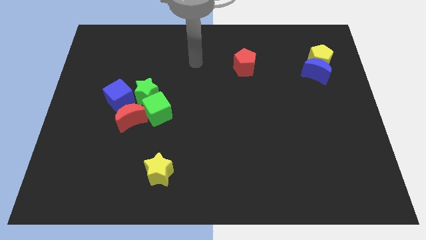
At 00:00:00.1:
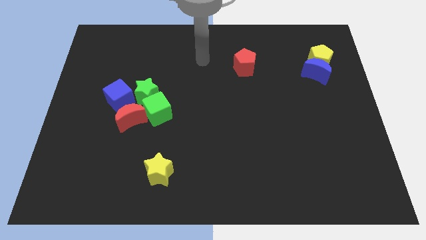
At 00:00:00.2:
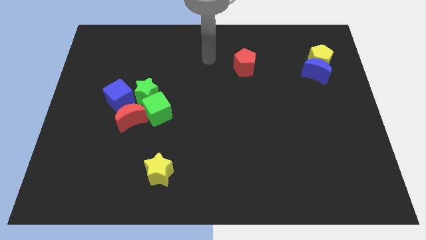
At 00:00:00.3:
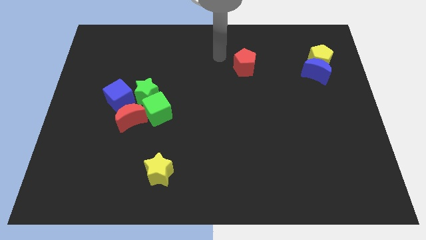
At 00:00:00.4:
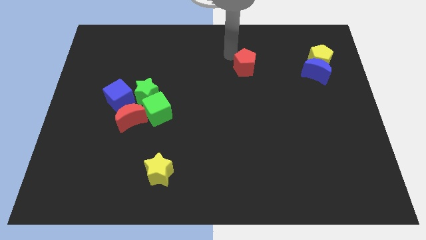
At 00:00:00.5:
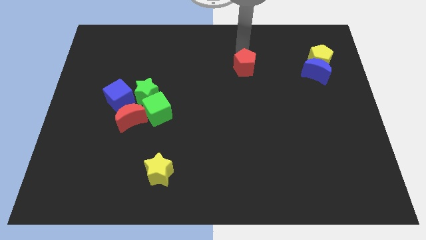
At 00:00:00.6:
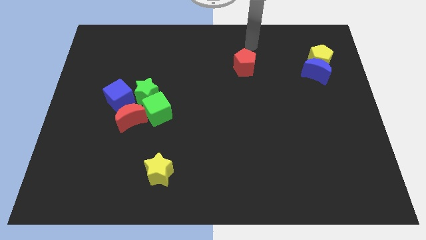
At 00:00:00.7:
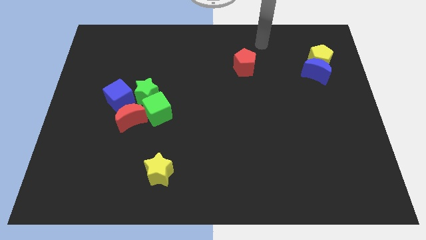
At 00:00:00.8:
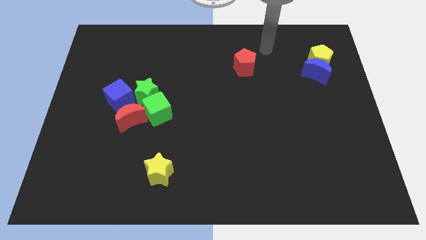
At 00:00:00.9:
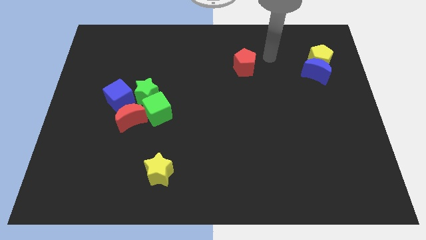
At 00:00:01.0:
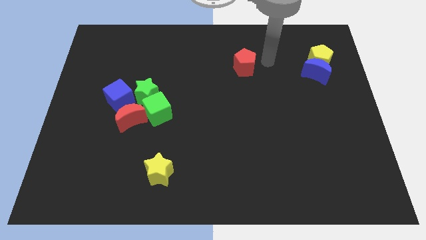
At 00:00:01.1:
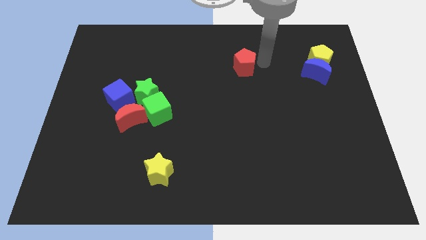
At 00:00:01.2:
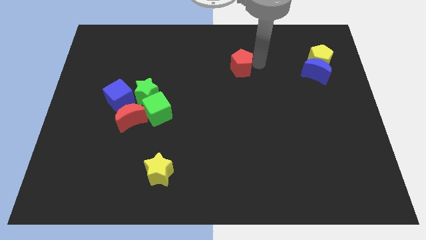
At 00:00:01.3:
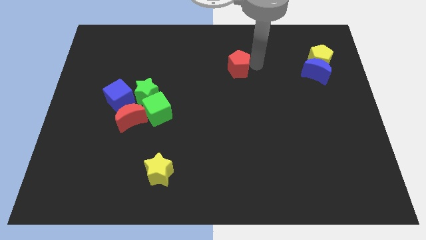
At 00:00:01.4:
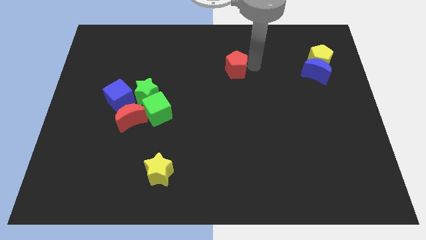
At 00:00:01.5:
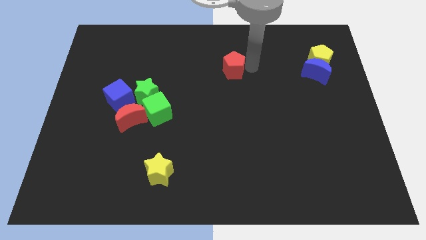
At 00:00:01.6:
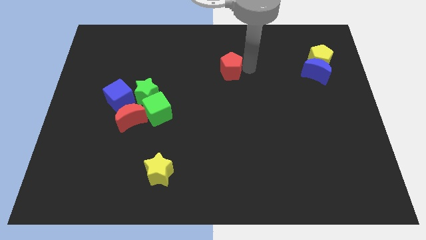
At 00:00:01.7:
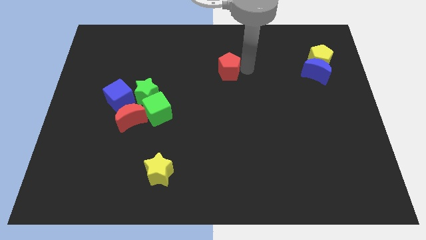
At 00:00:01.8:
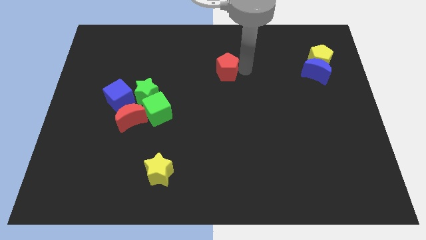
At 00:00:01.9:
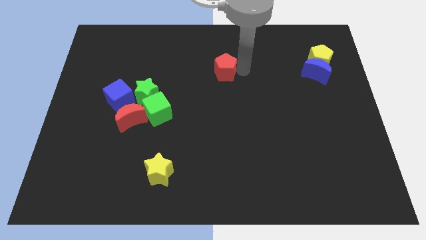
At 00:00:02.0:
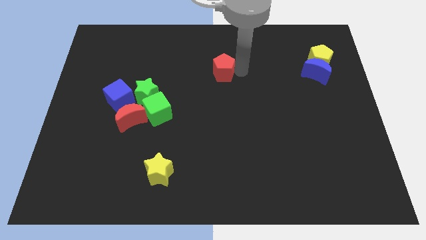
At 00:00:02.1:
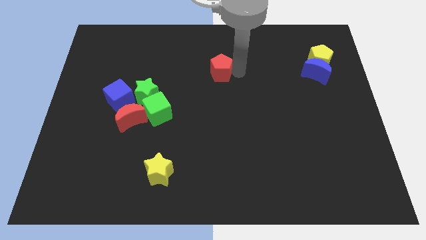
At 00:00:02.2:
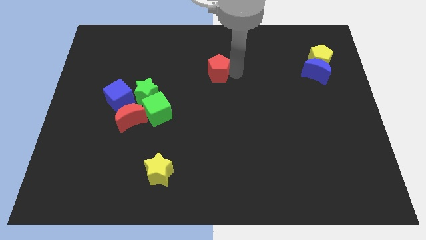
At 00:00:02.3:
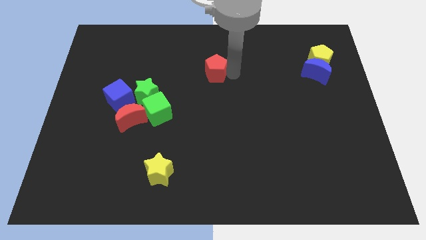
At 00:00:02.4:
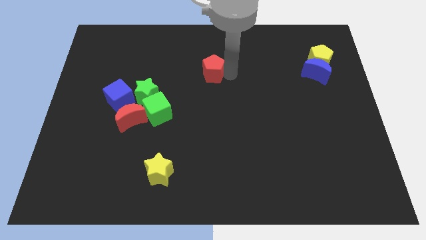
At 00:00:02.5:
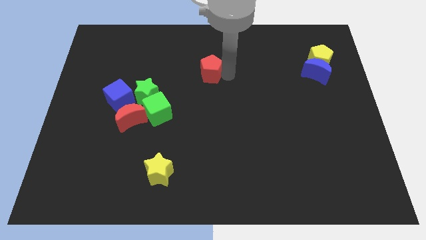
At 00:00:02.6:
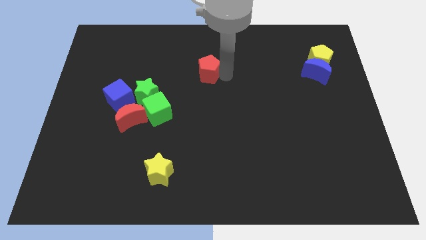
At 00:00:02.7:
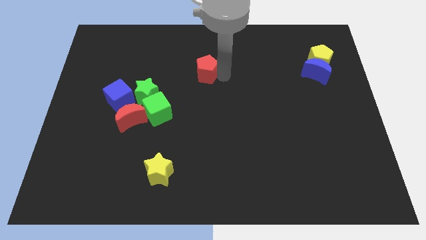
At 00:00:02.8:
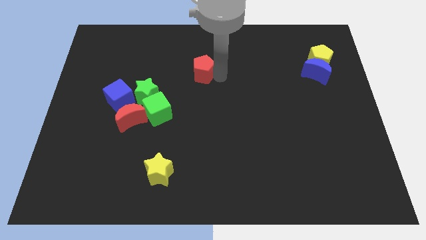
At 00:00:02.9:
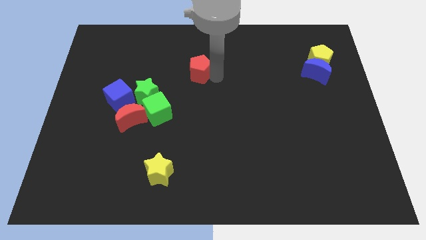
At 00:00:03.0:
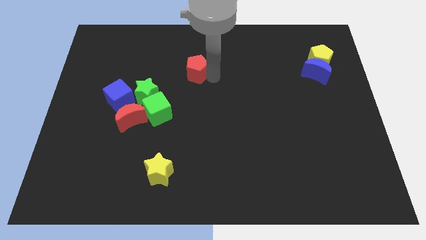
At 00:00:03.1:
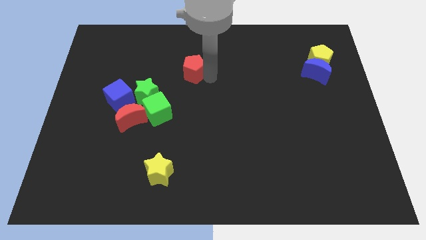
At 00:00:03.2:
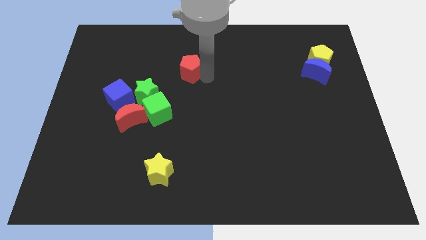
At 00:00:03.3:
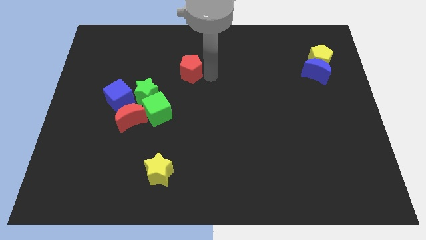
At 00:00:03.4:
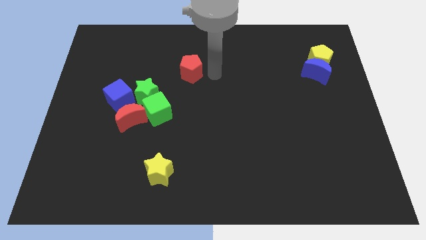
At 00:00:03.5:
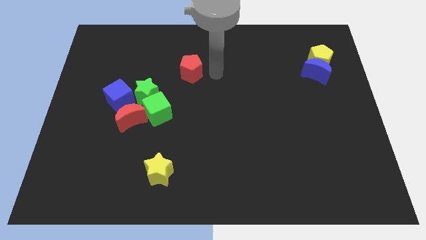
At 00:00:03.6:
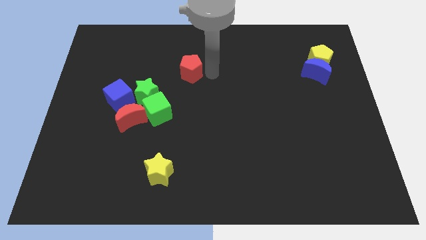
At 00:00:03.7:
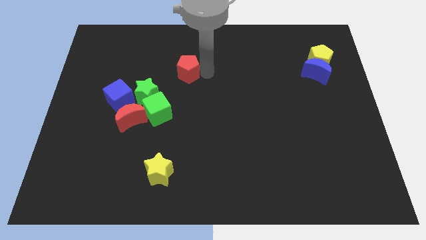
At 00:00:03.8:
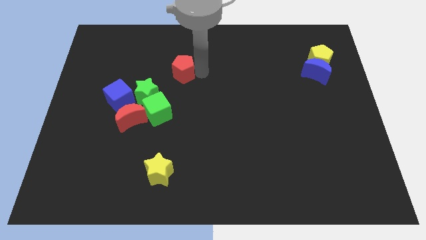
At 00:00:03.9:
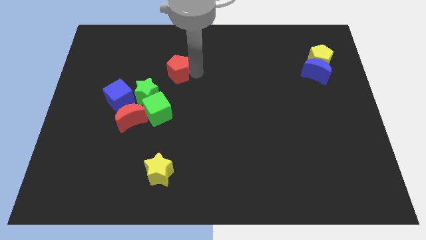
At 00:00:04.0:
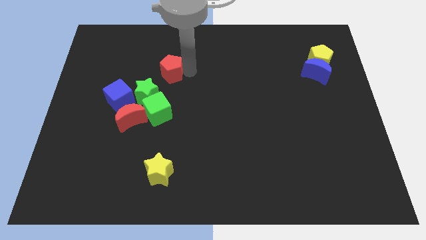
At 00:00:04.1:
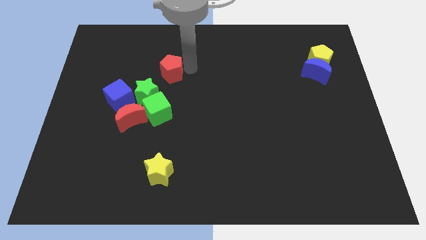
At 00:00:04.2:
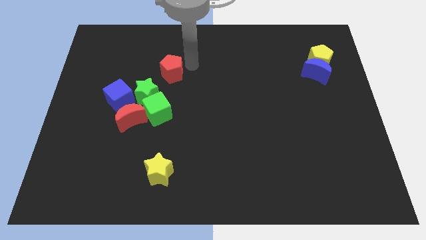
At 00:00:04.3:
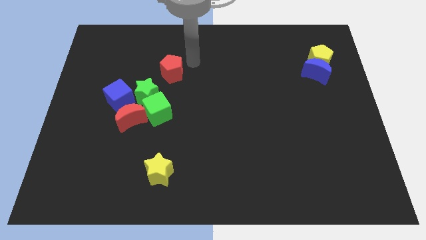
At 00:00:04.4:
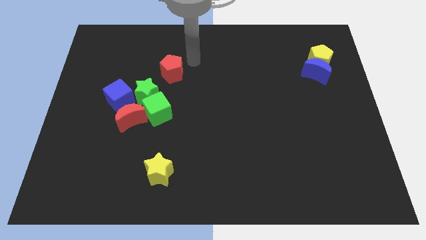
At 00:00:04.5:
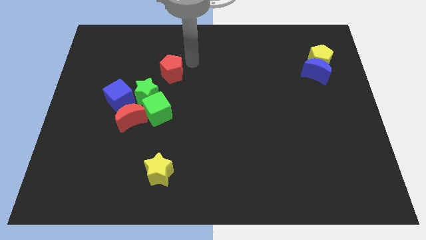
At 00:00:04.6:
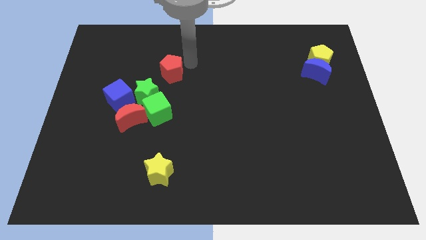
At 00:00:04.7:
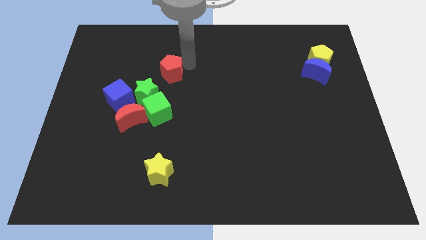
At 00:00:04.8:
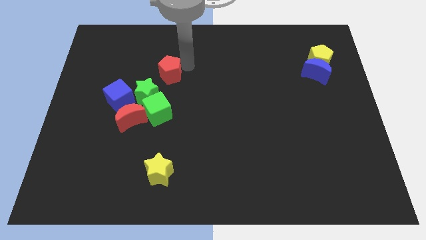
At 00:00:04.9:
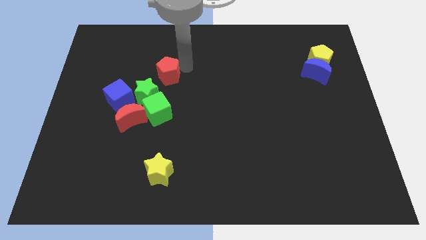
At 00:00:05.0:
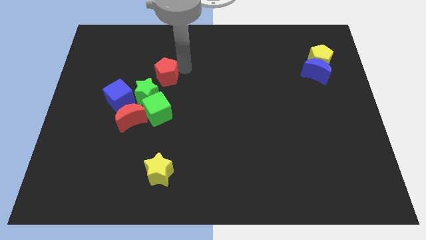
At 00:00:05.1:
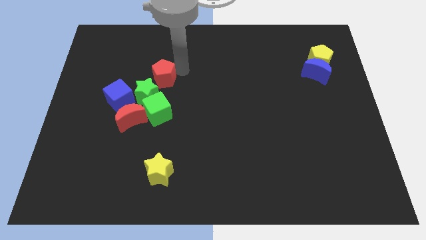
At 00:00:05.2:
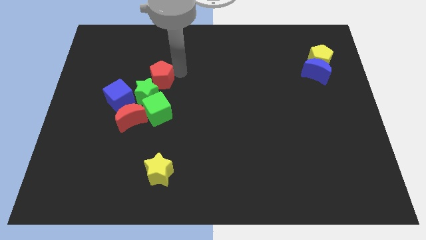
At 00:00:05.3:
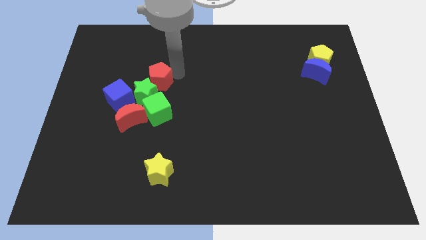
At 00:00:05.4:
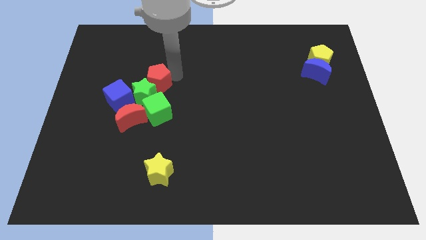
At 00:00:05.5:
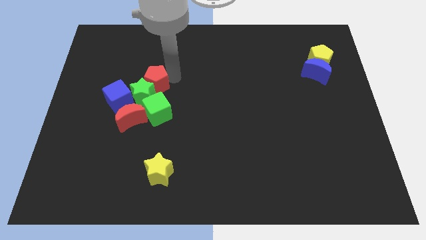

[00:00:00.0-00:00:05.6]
slide the red pentagon above the red moon

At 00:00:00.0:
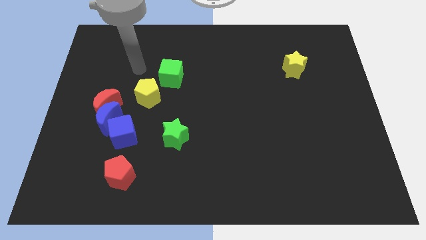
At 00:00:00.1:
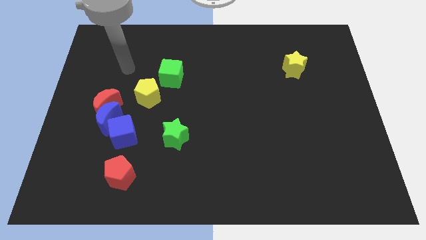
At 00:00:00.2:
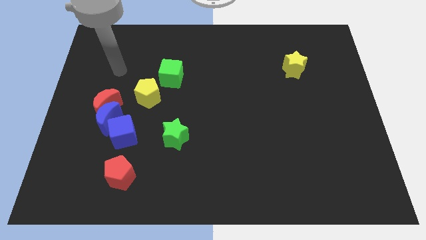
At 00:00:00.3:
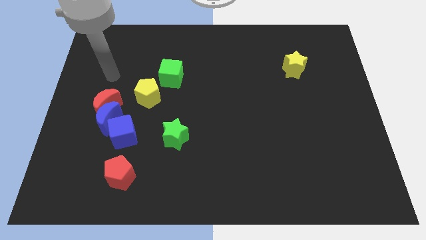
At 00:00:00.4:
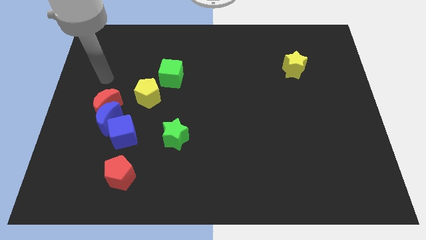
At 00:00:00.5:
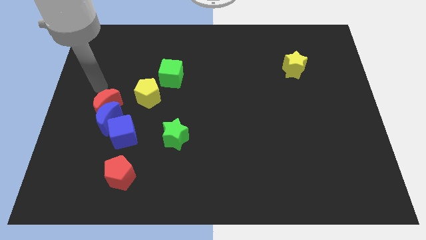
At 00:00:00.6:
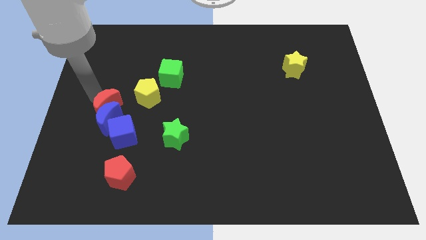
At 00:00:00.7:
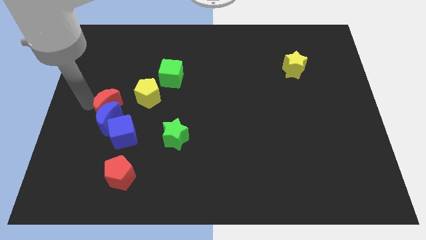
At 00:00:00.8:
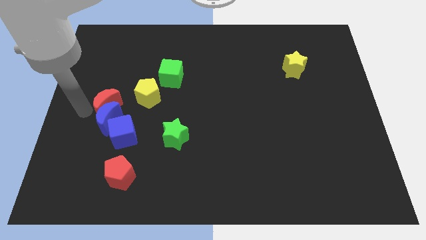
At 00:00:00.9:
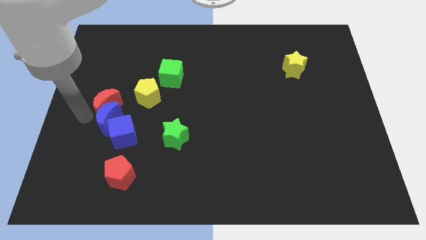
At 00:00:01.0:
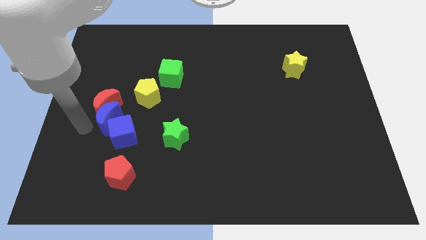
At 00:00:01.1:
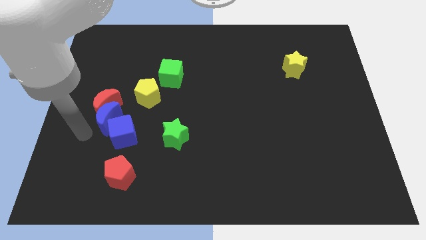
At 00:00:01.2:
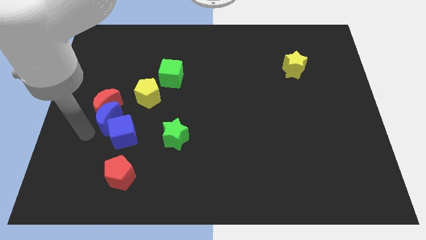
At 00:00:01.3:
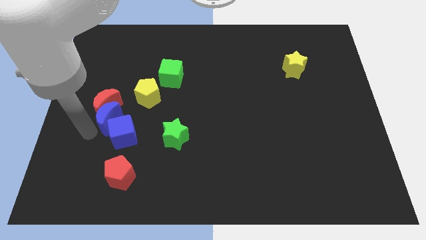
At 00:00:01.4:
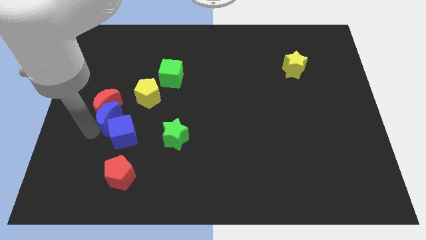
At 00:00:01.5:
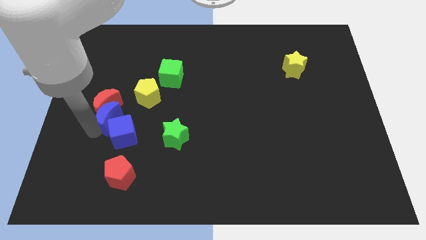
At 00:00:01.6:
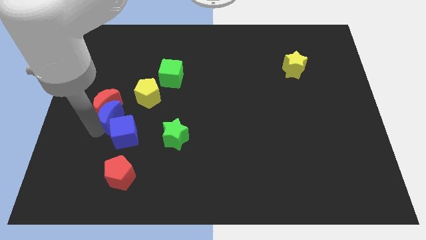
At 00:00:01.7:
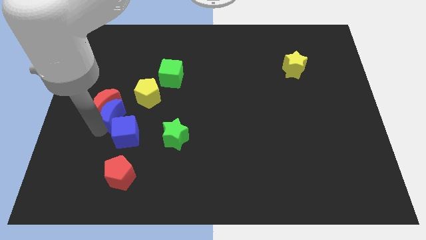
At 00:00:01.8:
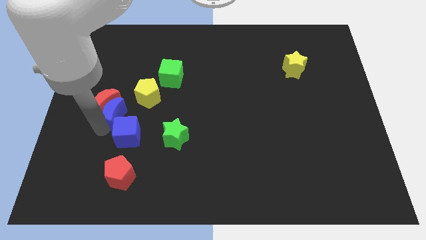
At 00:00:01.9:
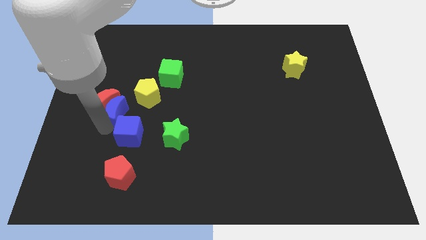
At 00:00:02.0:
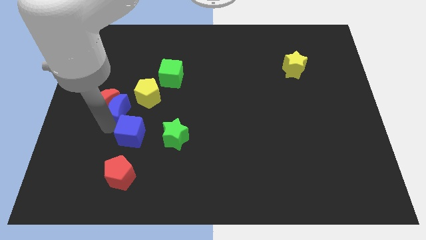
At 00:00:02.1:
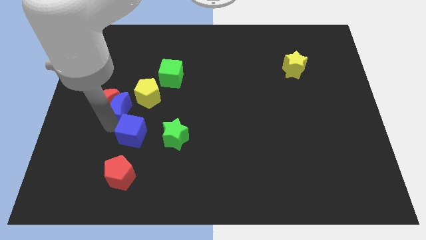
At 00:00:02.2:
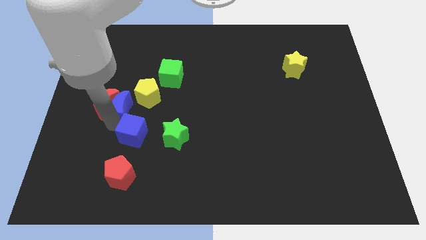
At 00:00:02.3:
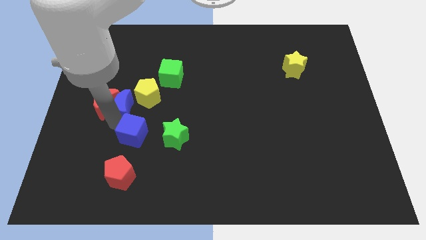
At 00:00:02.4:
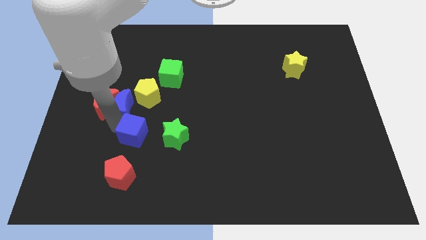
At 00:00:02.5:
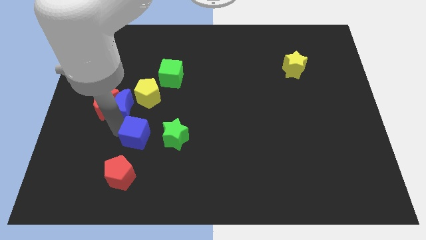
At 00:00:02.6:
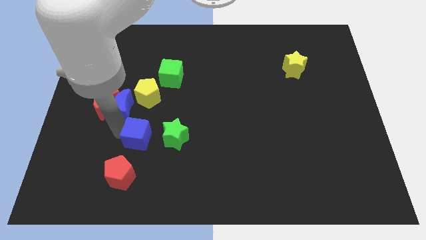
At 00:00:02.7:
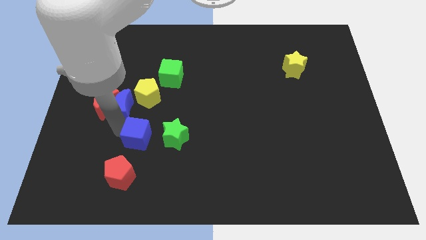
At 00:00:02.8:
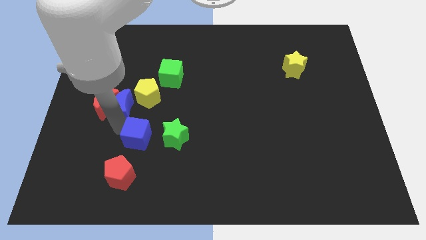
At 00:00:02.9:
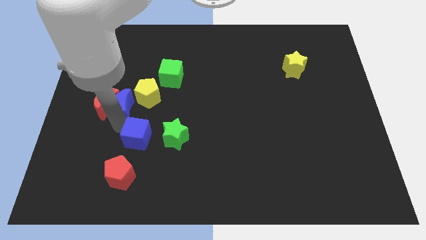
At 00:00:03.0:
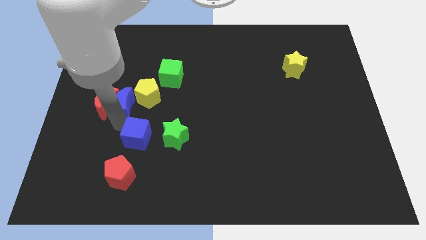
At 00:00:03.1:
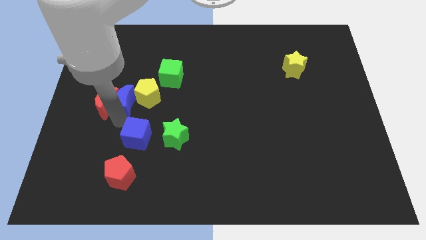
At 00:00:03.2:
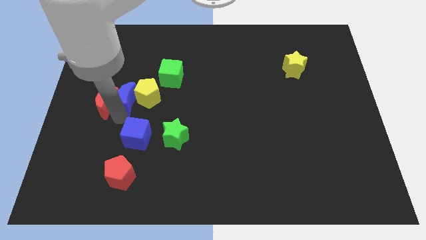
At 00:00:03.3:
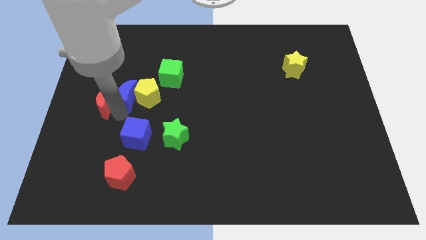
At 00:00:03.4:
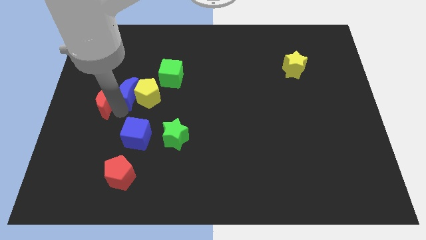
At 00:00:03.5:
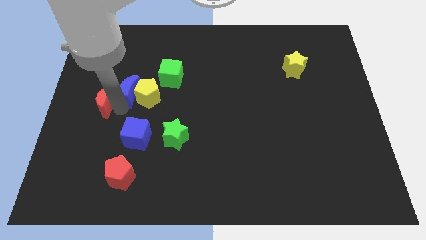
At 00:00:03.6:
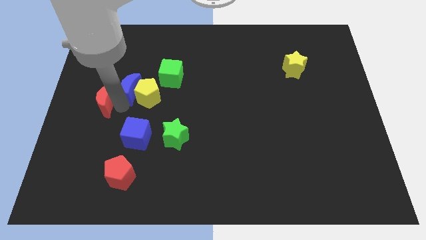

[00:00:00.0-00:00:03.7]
push the blue moon just left of the green cube
